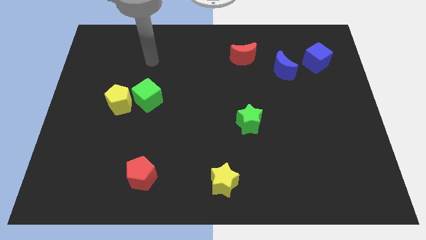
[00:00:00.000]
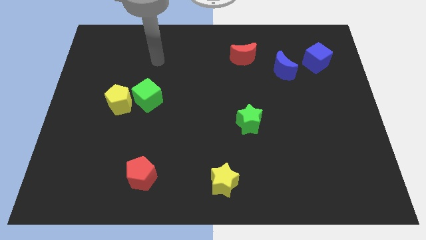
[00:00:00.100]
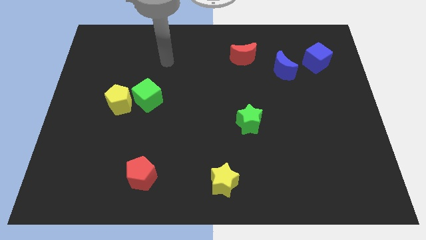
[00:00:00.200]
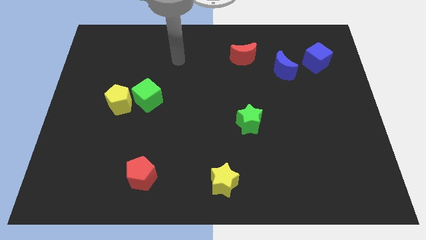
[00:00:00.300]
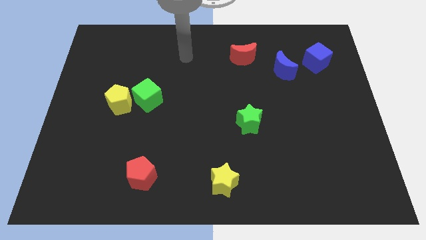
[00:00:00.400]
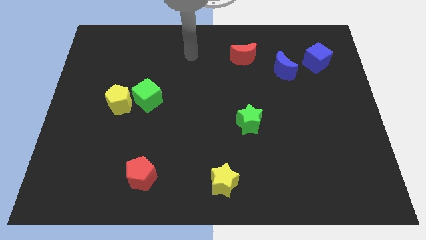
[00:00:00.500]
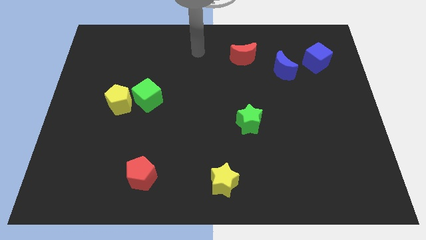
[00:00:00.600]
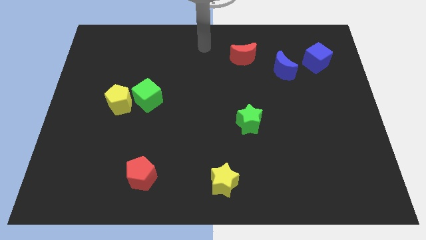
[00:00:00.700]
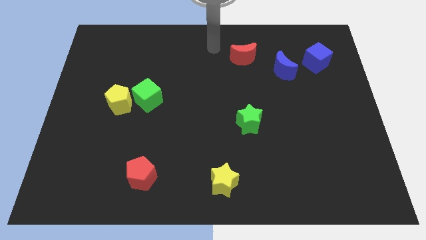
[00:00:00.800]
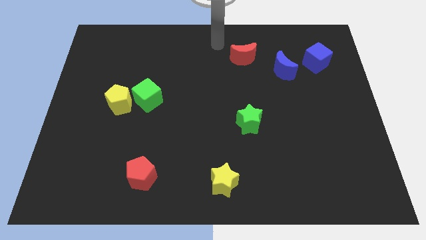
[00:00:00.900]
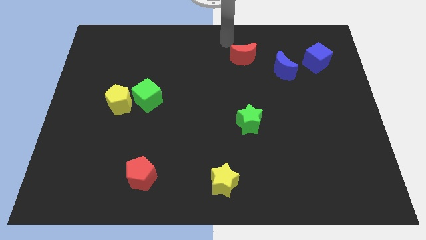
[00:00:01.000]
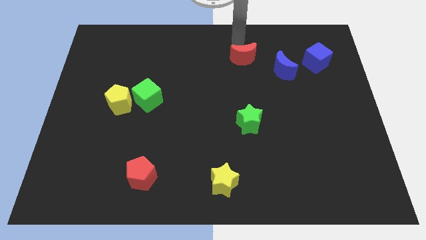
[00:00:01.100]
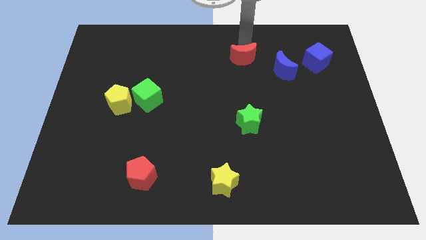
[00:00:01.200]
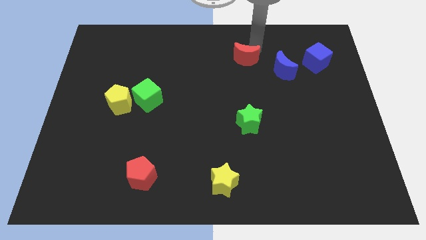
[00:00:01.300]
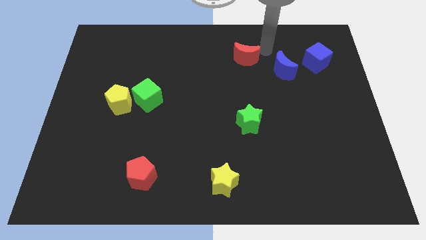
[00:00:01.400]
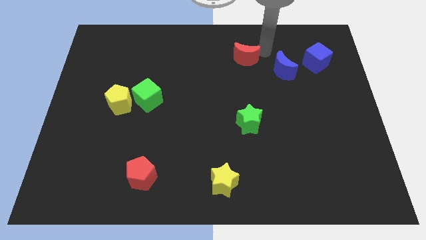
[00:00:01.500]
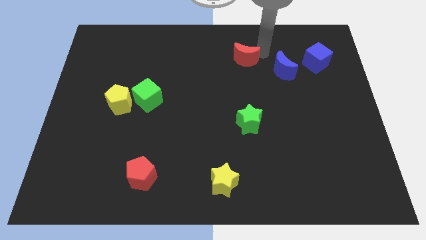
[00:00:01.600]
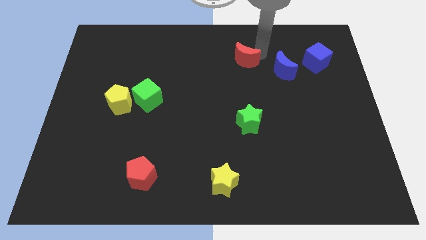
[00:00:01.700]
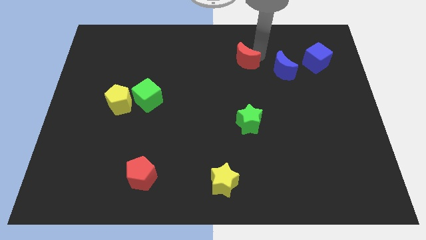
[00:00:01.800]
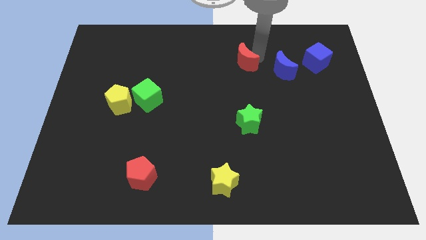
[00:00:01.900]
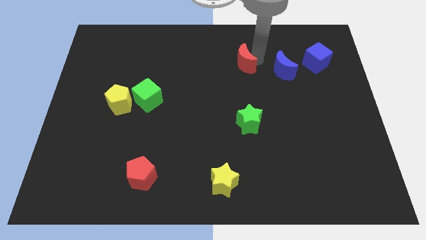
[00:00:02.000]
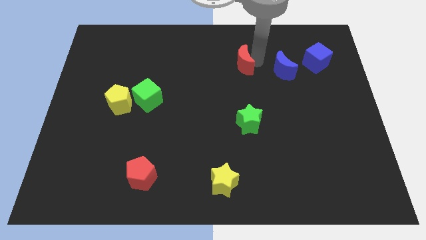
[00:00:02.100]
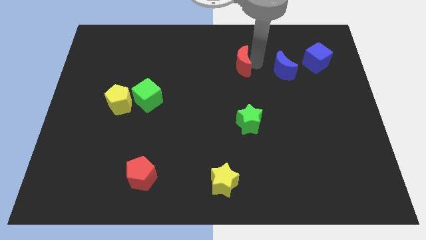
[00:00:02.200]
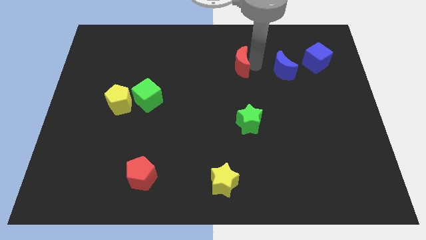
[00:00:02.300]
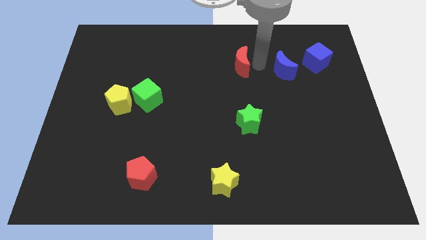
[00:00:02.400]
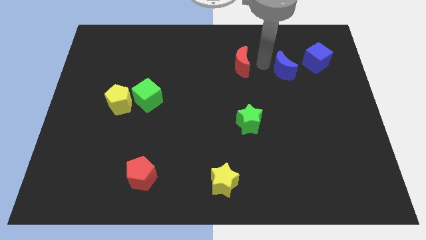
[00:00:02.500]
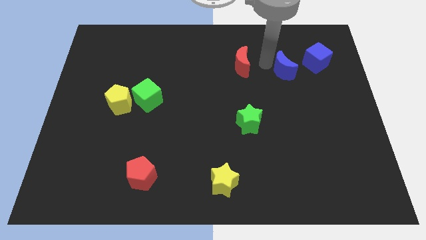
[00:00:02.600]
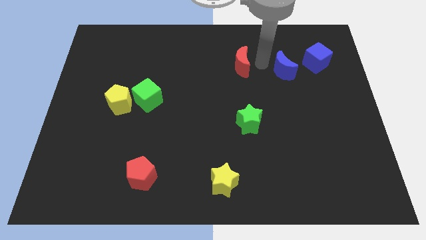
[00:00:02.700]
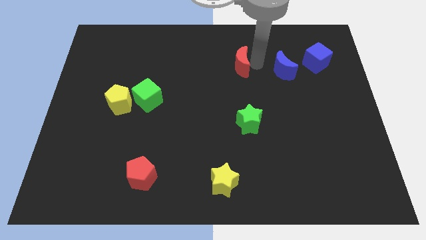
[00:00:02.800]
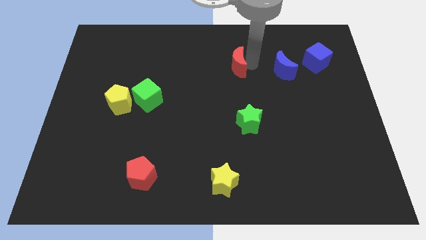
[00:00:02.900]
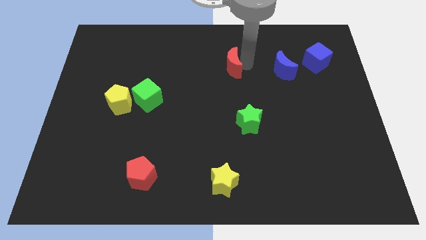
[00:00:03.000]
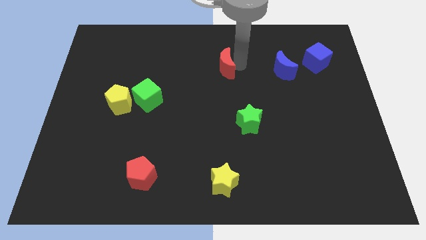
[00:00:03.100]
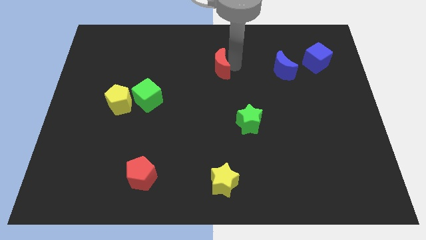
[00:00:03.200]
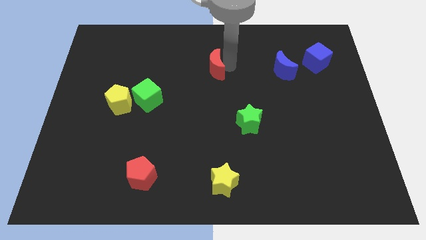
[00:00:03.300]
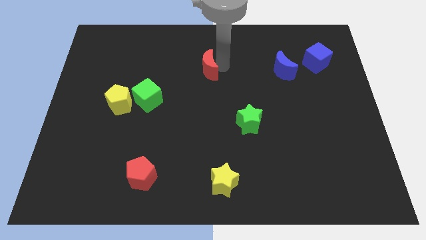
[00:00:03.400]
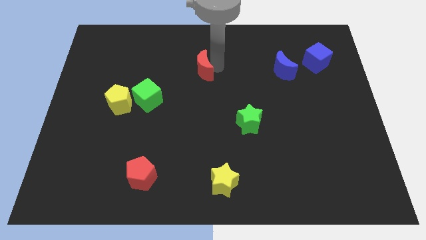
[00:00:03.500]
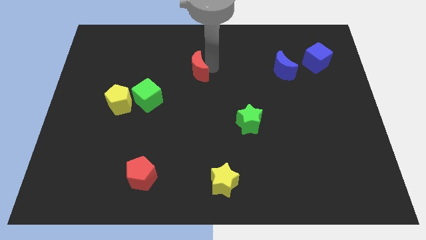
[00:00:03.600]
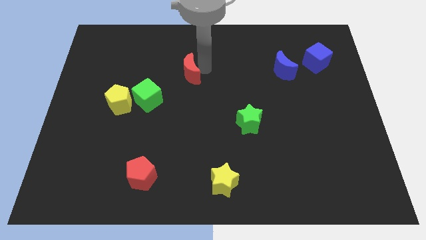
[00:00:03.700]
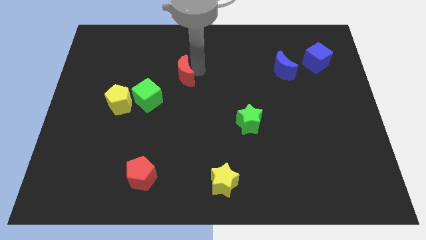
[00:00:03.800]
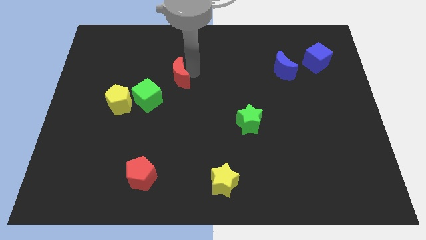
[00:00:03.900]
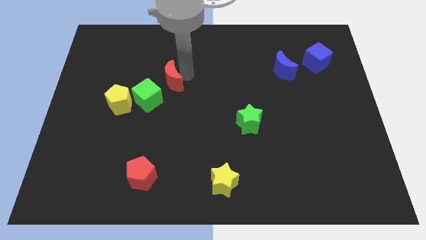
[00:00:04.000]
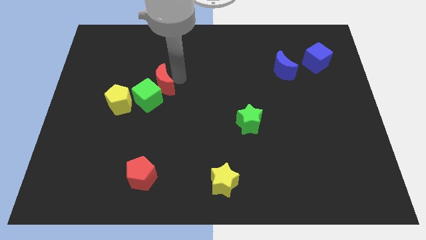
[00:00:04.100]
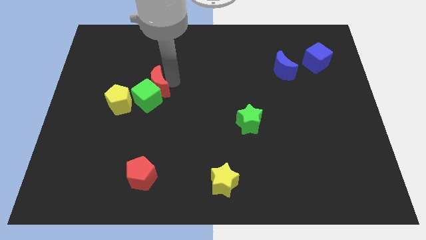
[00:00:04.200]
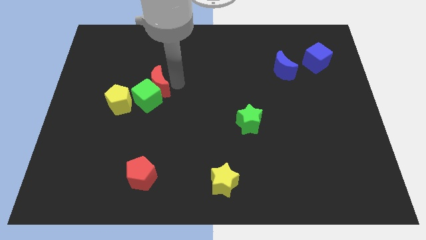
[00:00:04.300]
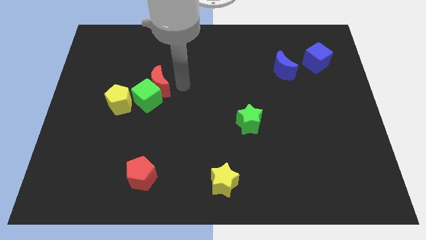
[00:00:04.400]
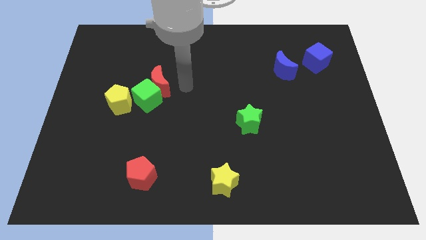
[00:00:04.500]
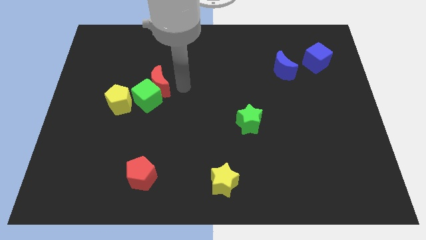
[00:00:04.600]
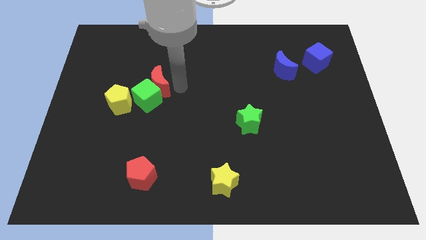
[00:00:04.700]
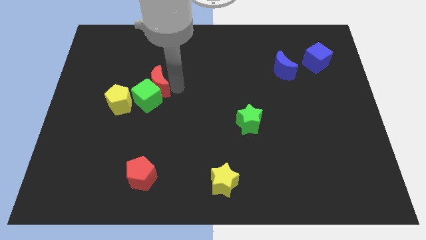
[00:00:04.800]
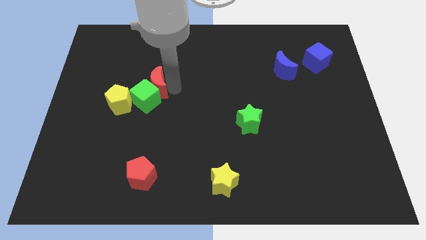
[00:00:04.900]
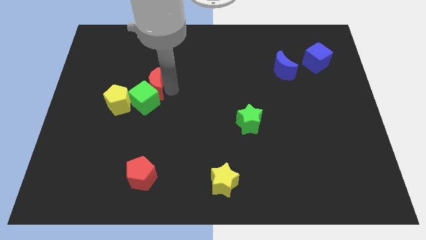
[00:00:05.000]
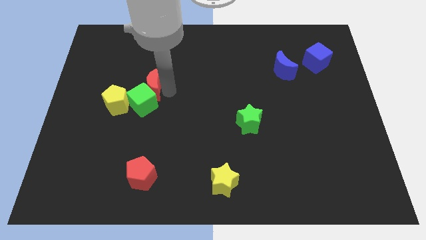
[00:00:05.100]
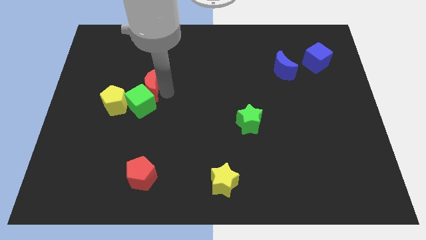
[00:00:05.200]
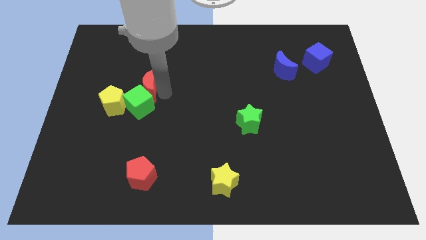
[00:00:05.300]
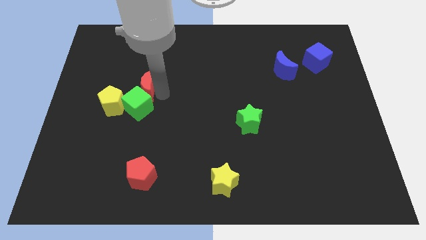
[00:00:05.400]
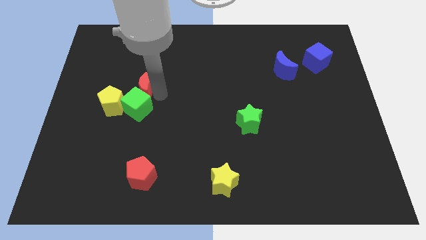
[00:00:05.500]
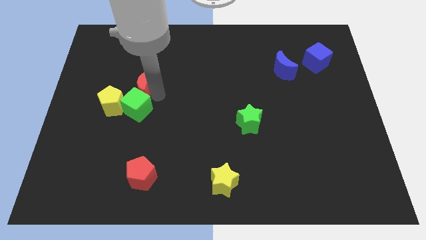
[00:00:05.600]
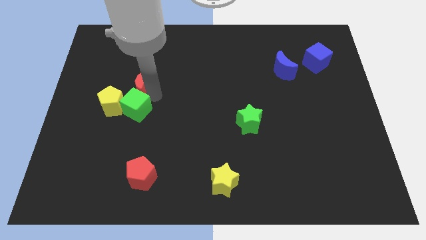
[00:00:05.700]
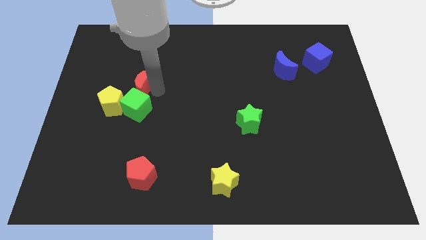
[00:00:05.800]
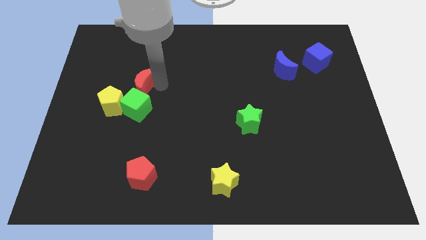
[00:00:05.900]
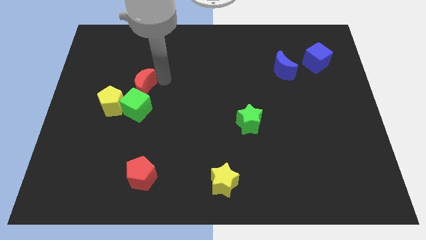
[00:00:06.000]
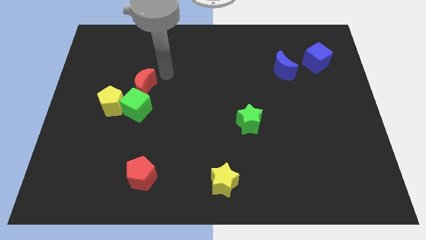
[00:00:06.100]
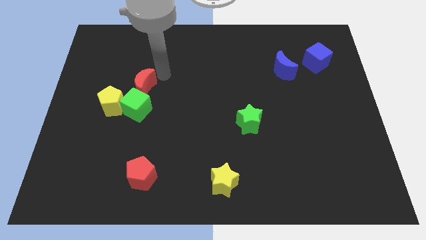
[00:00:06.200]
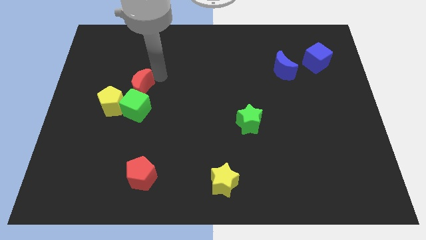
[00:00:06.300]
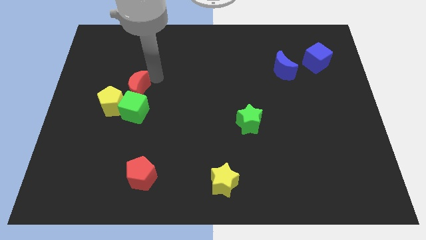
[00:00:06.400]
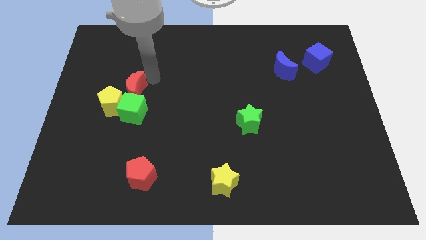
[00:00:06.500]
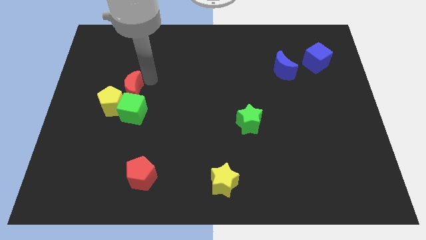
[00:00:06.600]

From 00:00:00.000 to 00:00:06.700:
move the red moon next to the yellow pentagon
